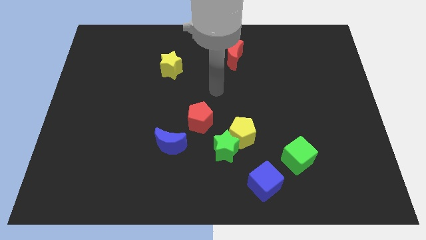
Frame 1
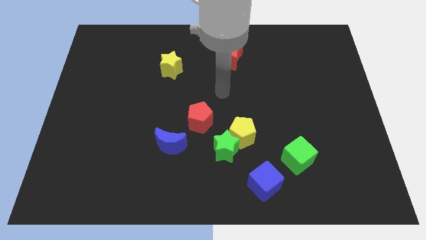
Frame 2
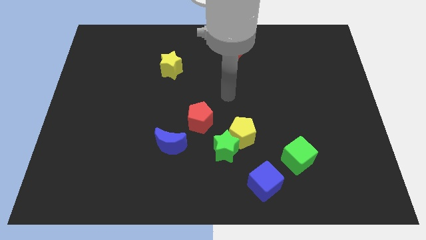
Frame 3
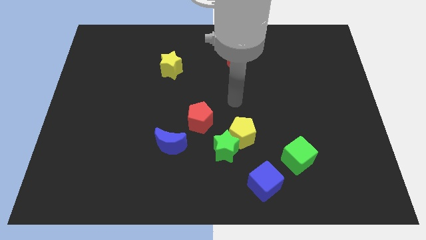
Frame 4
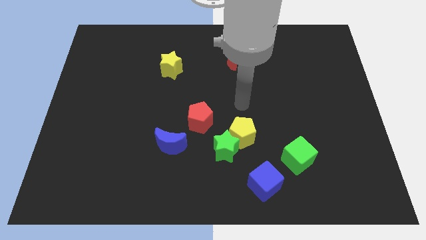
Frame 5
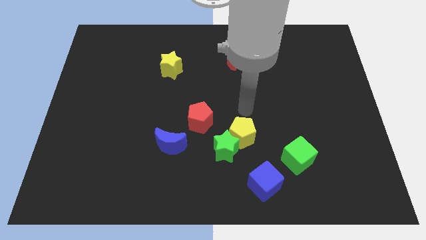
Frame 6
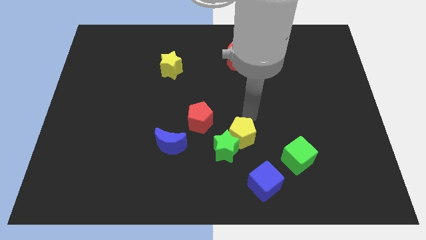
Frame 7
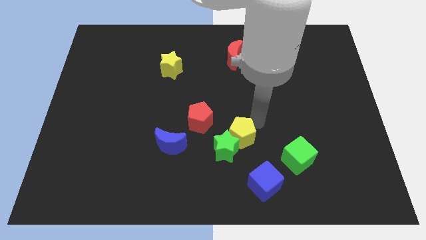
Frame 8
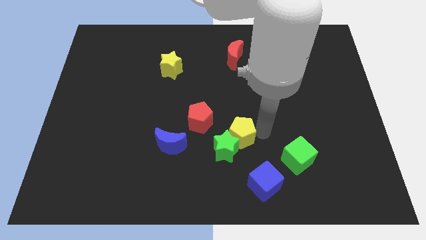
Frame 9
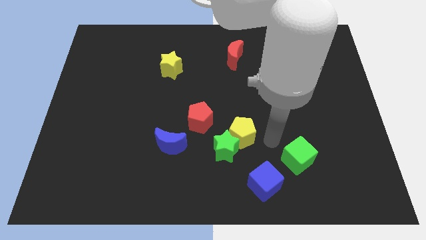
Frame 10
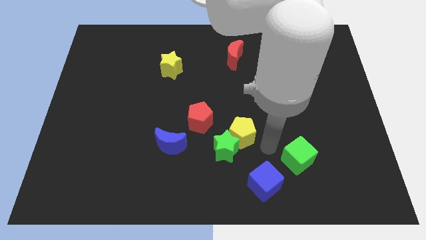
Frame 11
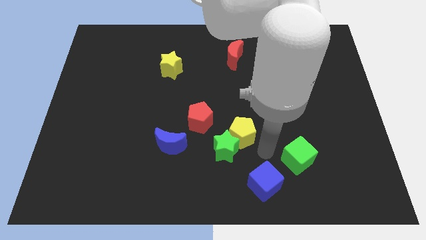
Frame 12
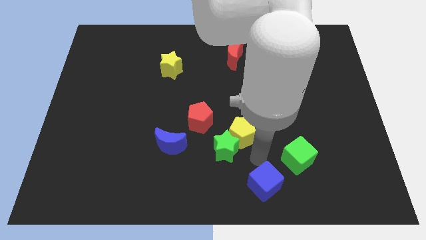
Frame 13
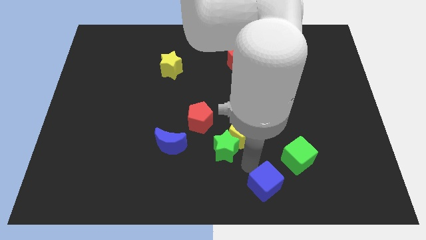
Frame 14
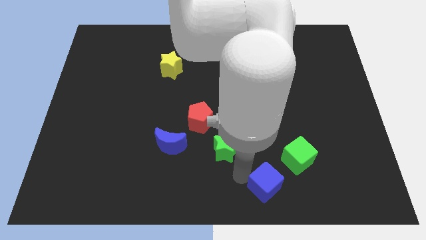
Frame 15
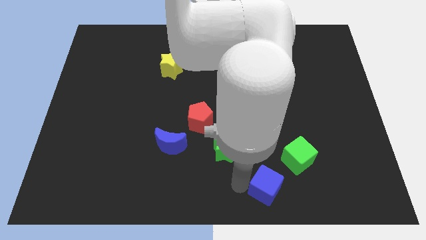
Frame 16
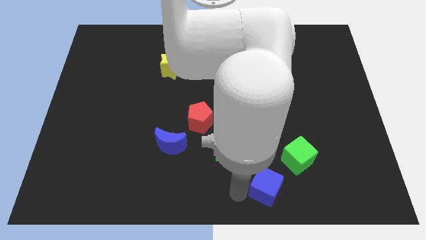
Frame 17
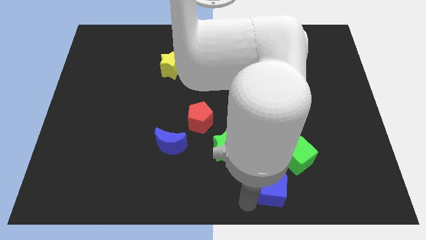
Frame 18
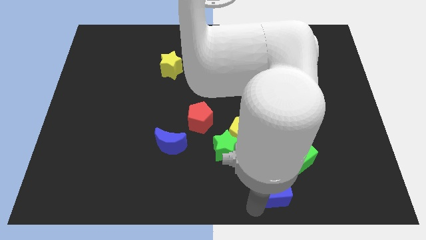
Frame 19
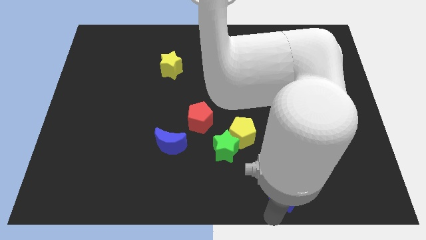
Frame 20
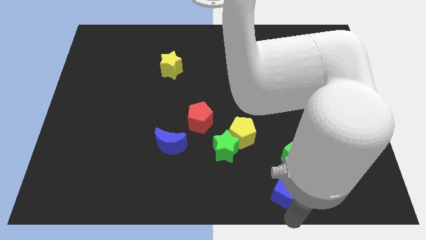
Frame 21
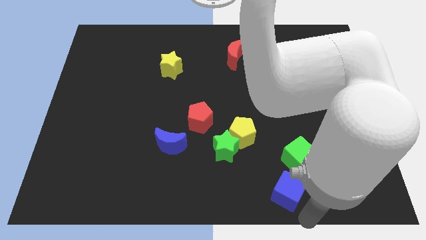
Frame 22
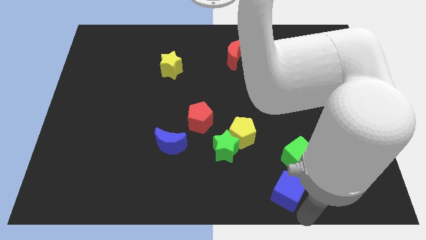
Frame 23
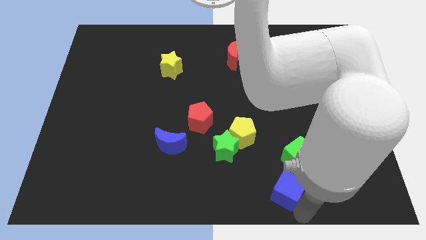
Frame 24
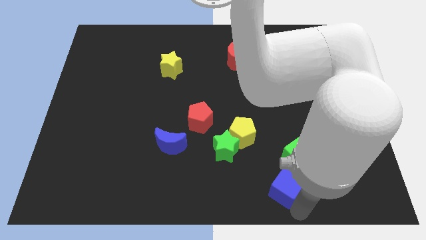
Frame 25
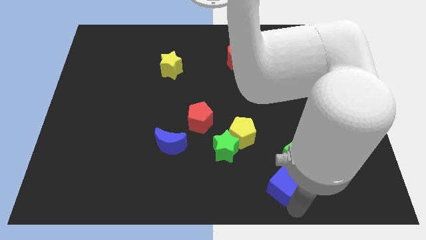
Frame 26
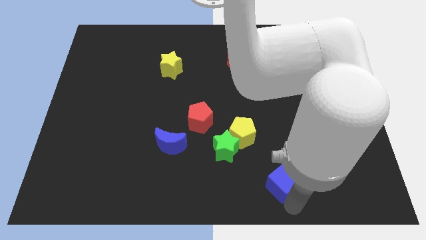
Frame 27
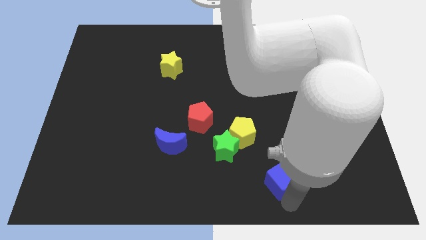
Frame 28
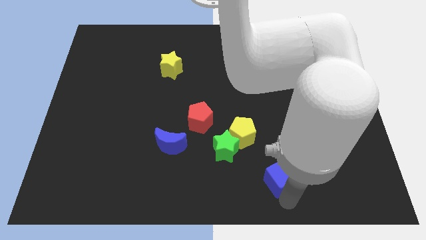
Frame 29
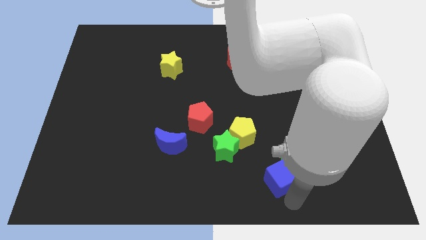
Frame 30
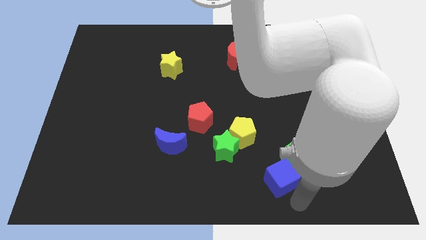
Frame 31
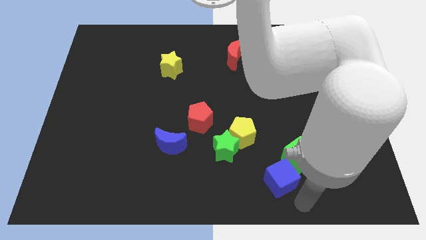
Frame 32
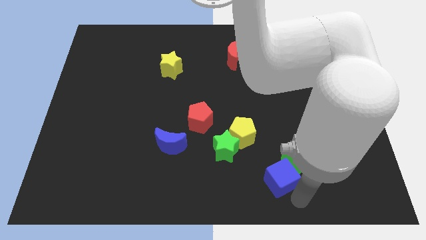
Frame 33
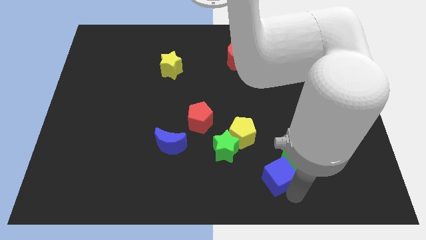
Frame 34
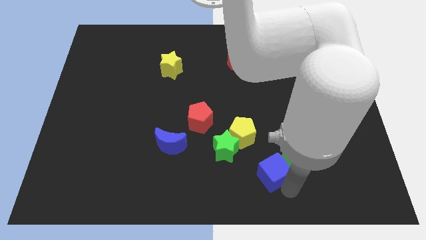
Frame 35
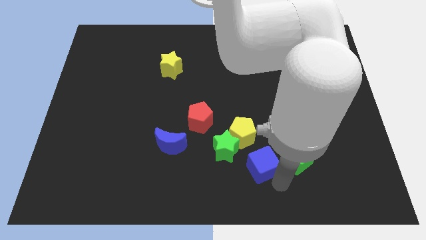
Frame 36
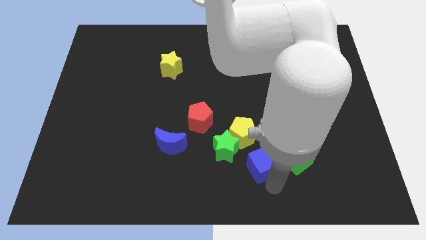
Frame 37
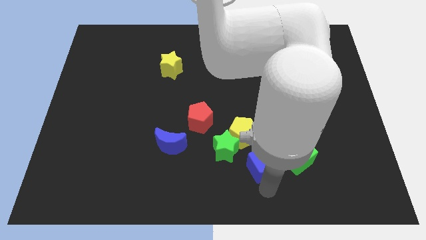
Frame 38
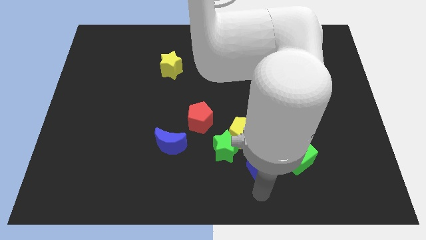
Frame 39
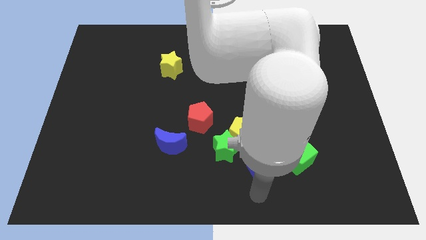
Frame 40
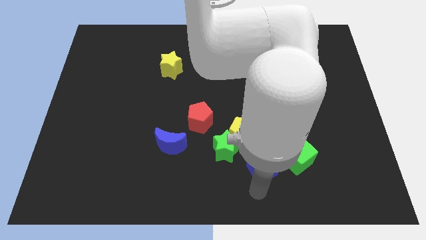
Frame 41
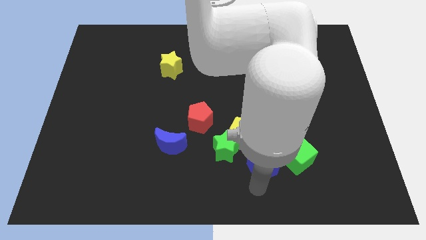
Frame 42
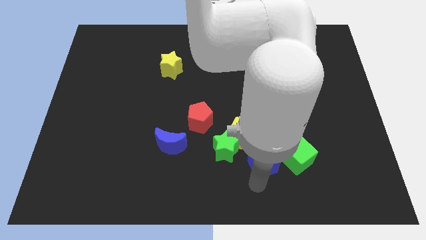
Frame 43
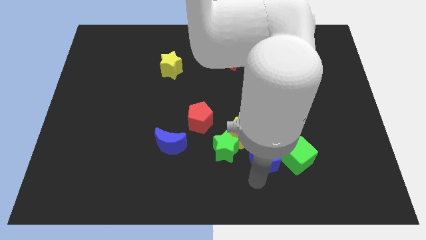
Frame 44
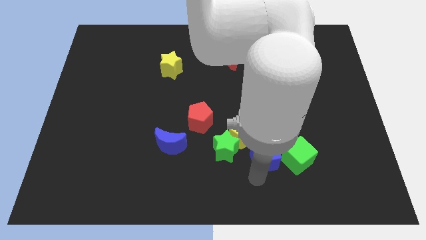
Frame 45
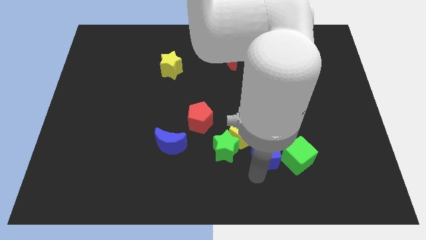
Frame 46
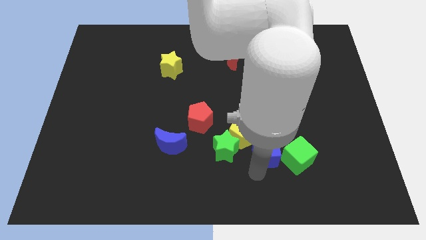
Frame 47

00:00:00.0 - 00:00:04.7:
slightly push the blue cube upwards

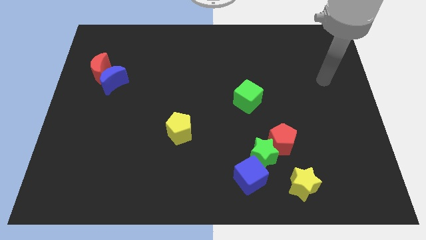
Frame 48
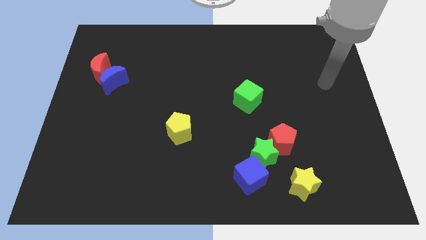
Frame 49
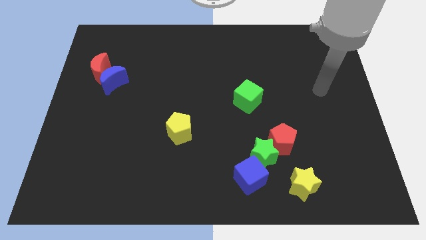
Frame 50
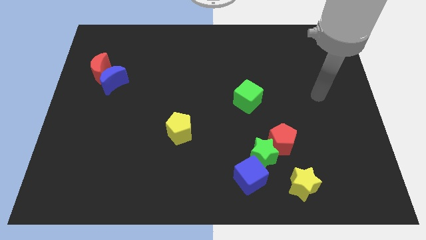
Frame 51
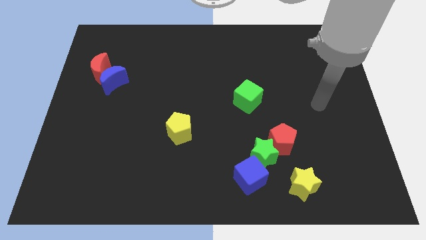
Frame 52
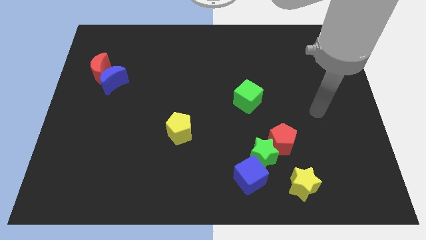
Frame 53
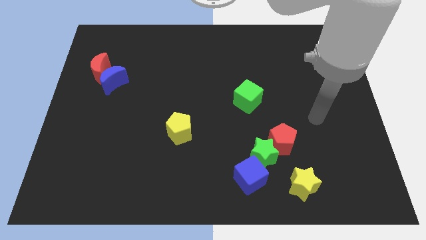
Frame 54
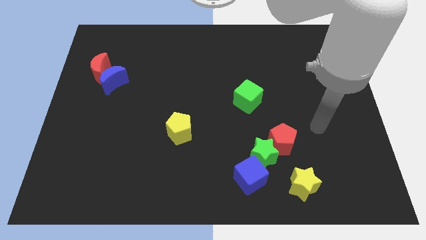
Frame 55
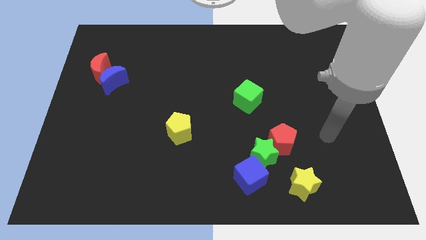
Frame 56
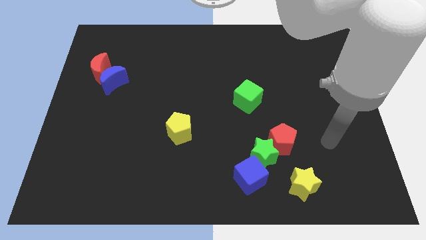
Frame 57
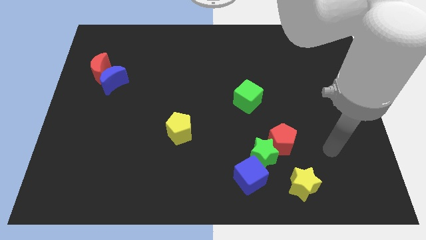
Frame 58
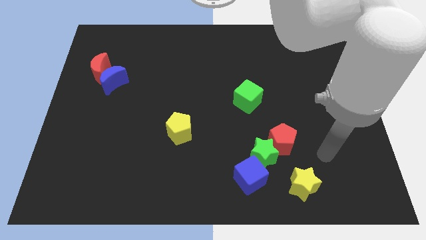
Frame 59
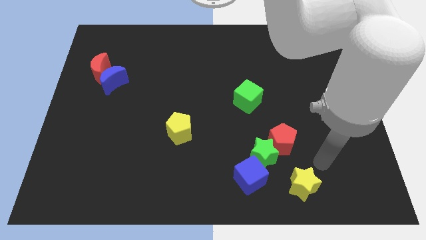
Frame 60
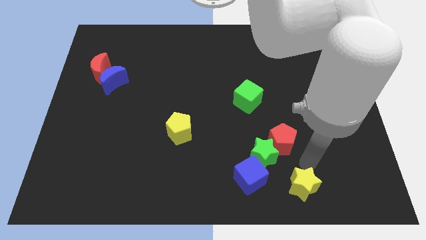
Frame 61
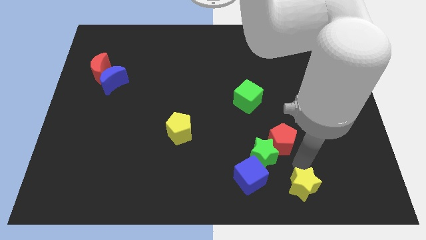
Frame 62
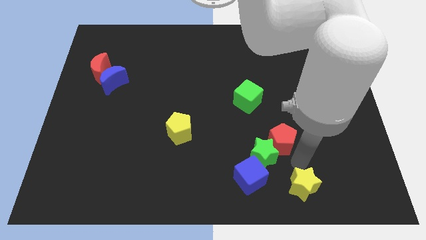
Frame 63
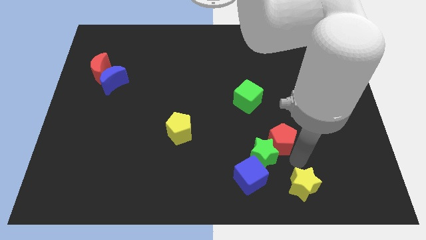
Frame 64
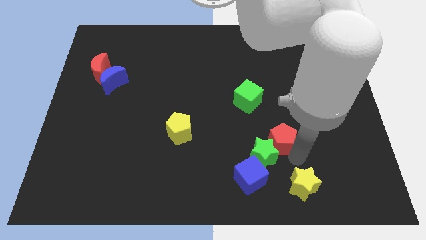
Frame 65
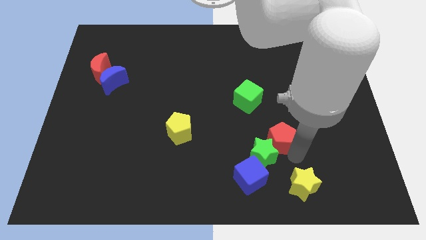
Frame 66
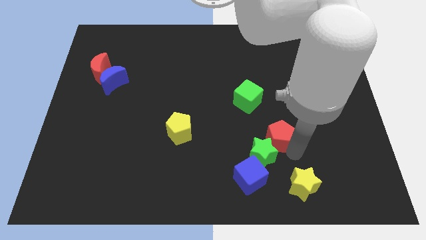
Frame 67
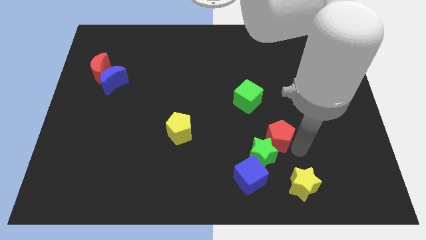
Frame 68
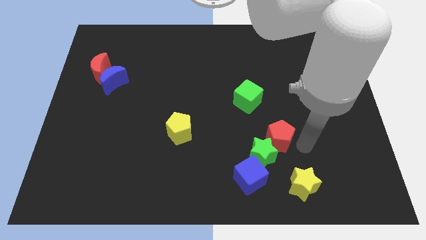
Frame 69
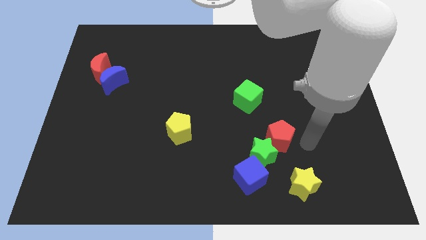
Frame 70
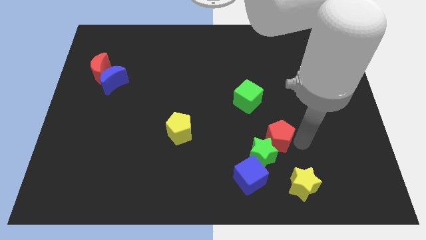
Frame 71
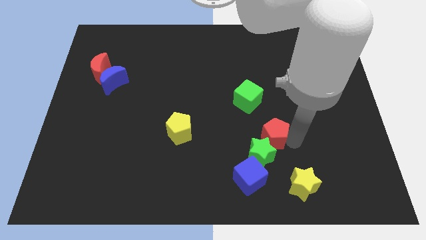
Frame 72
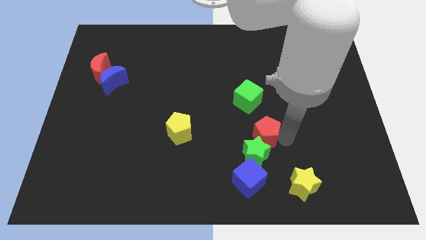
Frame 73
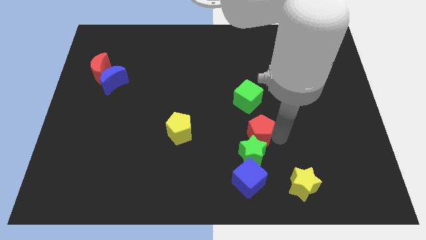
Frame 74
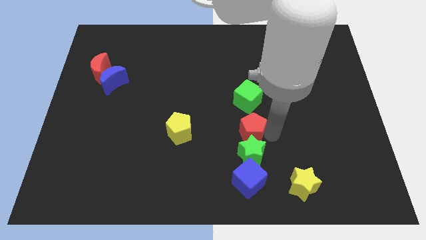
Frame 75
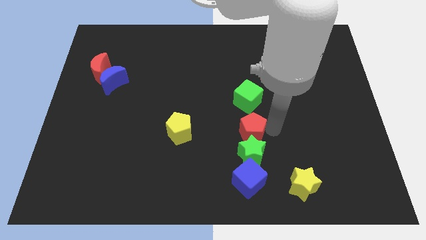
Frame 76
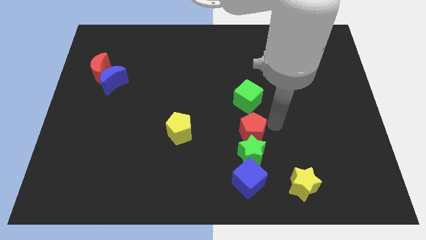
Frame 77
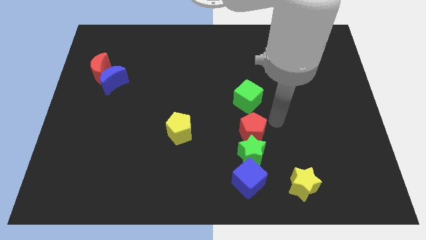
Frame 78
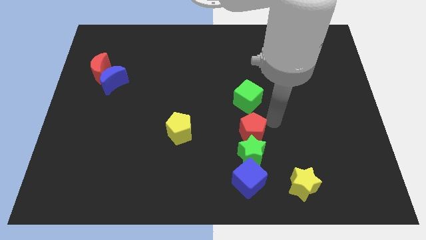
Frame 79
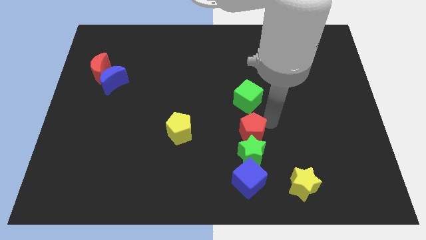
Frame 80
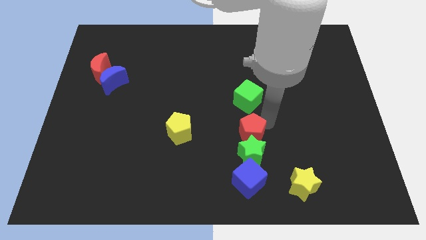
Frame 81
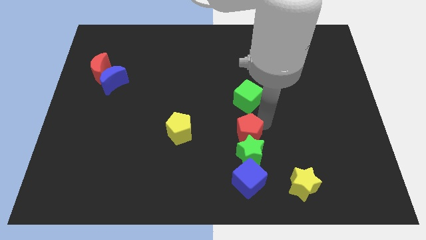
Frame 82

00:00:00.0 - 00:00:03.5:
push the red pentagon a little left

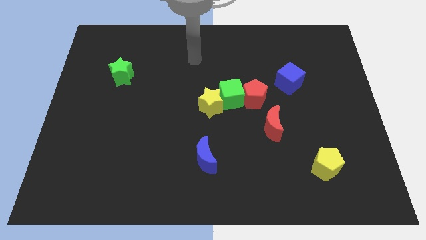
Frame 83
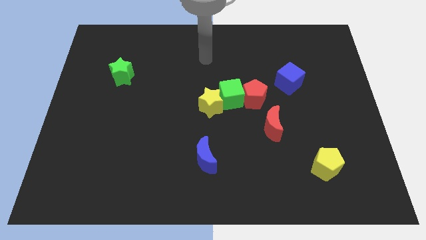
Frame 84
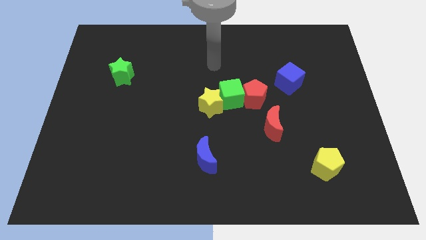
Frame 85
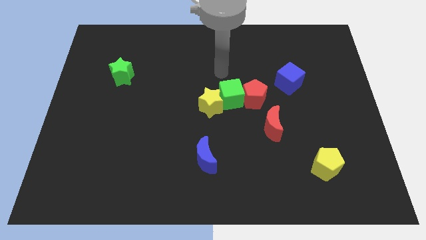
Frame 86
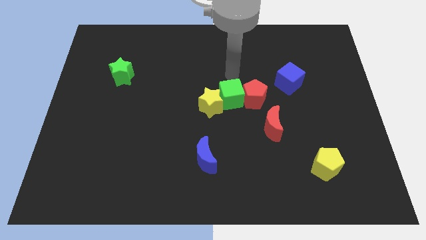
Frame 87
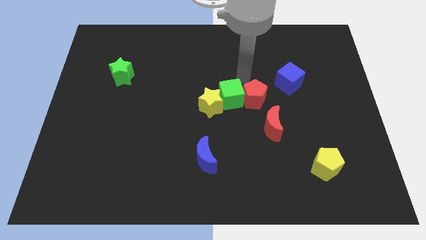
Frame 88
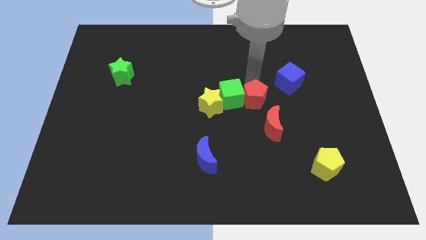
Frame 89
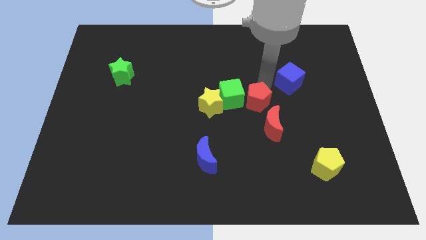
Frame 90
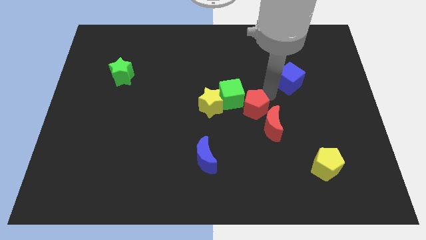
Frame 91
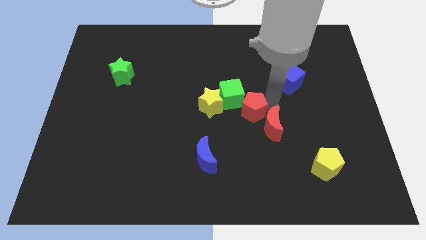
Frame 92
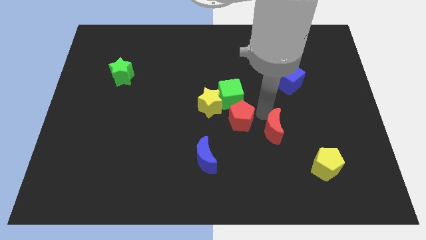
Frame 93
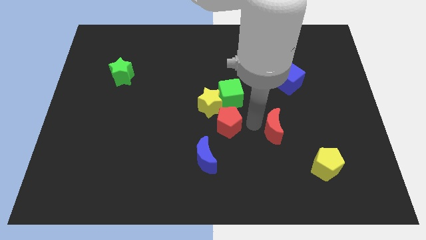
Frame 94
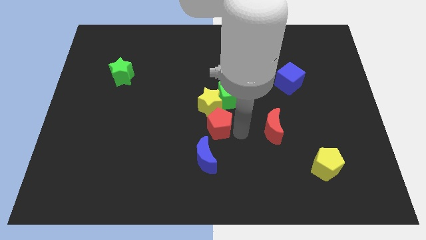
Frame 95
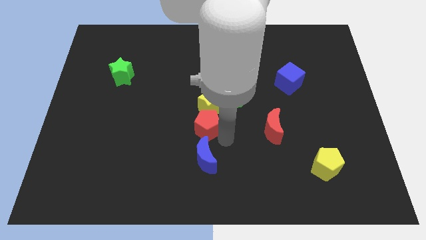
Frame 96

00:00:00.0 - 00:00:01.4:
slide the red pentagon a little bit left
